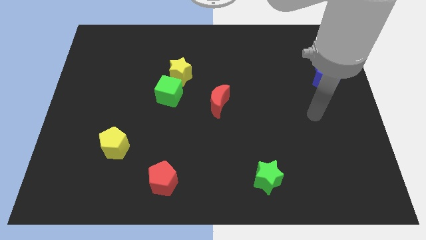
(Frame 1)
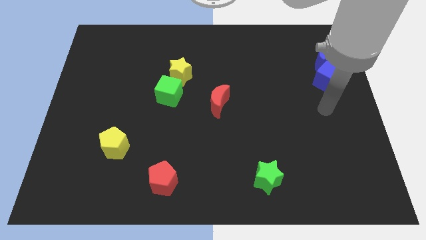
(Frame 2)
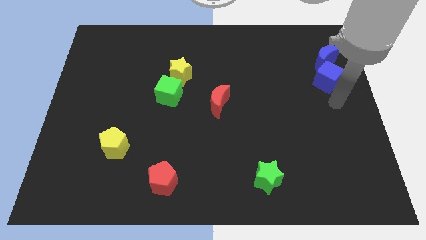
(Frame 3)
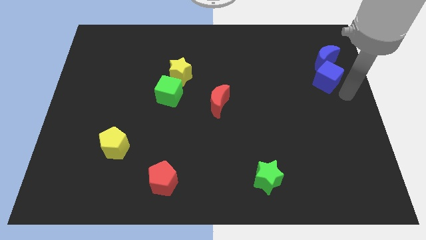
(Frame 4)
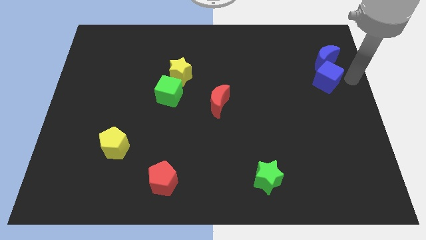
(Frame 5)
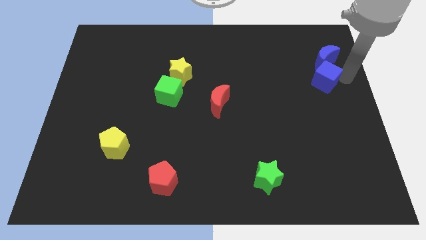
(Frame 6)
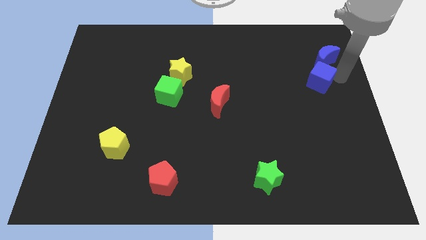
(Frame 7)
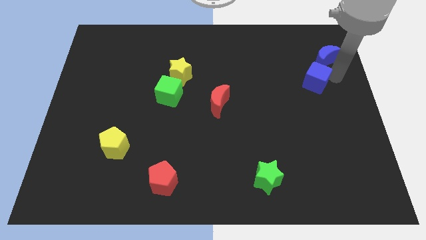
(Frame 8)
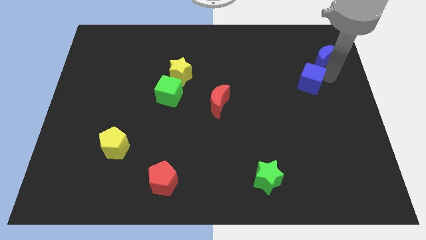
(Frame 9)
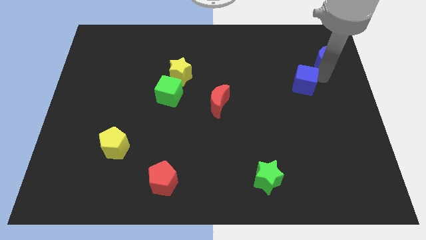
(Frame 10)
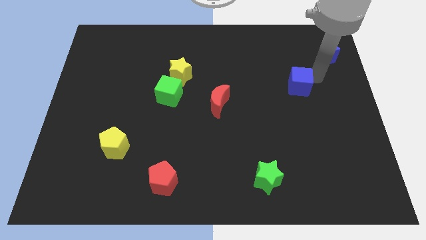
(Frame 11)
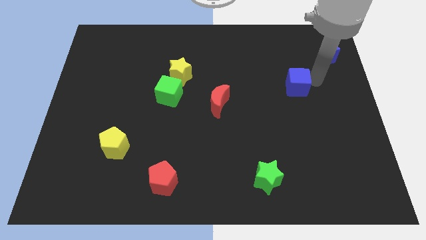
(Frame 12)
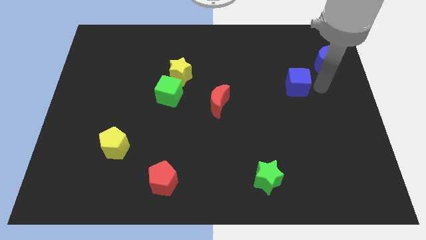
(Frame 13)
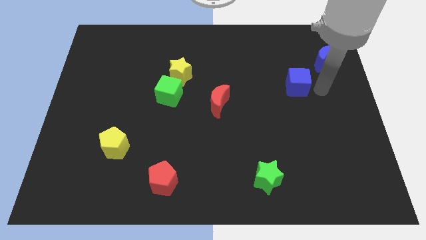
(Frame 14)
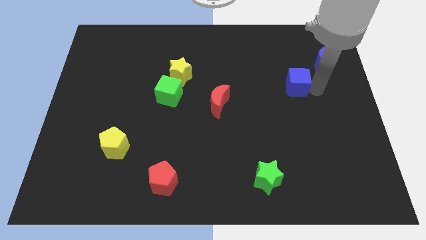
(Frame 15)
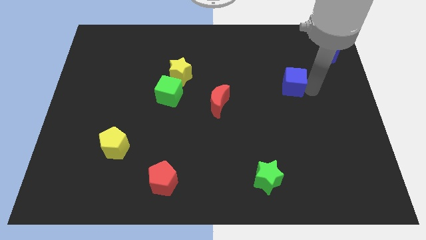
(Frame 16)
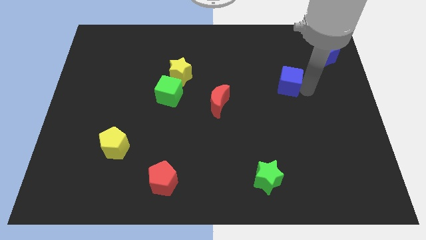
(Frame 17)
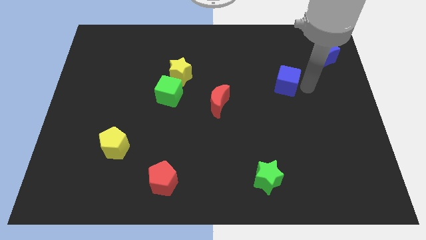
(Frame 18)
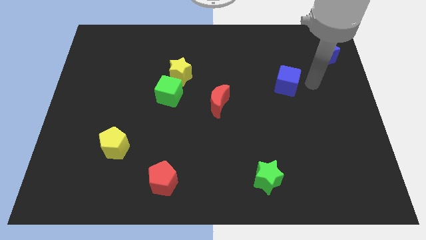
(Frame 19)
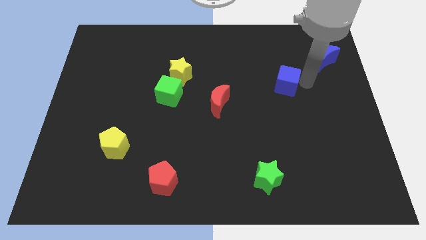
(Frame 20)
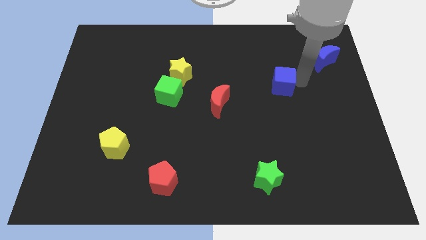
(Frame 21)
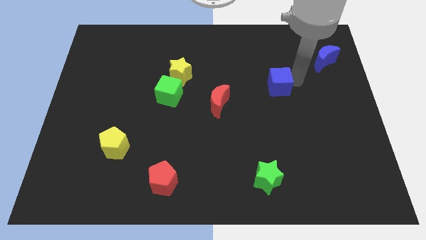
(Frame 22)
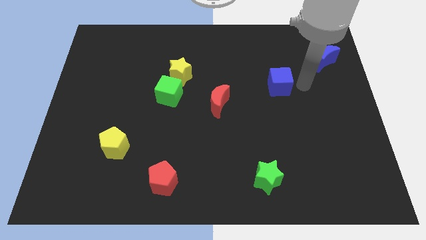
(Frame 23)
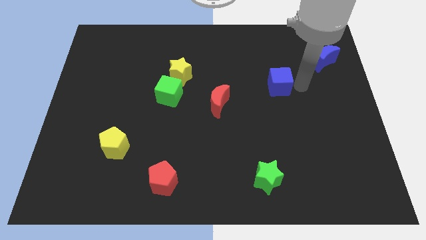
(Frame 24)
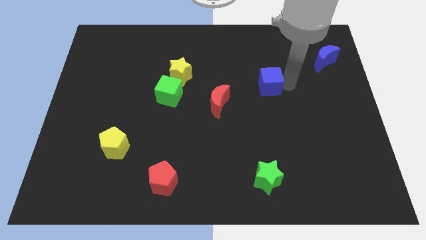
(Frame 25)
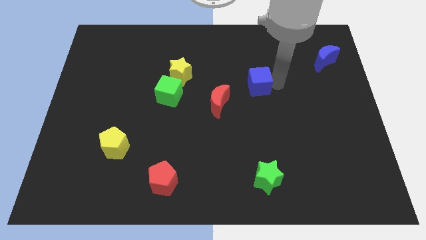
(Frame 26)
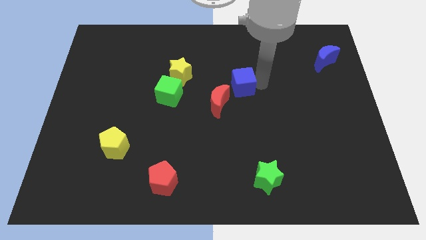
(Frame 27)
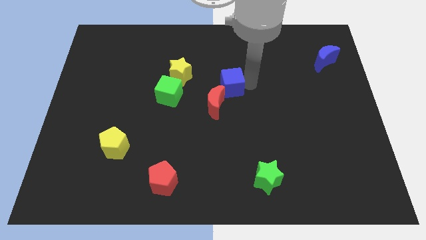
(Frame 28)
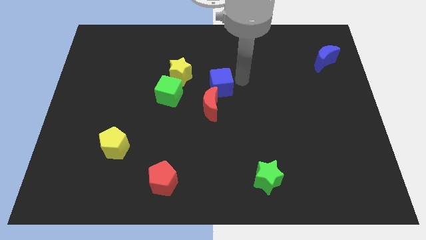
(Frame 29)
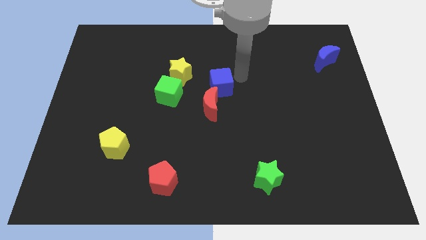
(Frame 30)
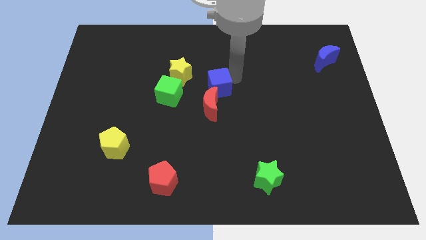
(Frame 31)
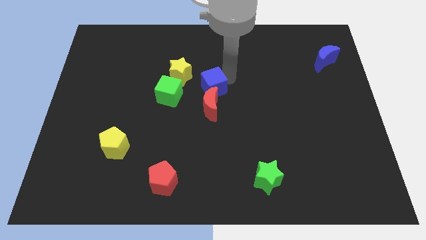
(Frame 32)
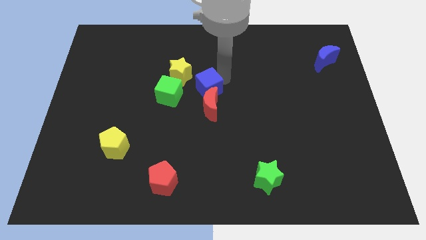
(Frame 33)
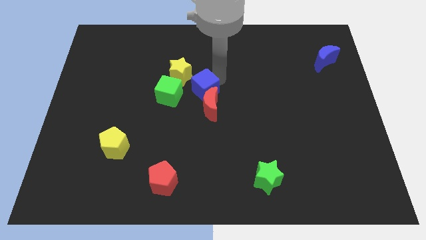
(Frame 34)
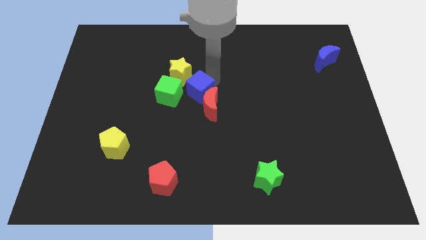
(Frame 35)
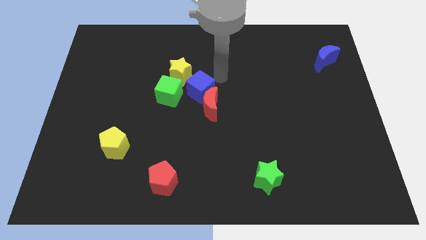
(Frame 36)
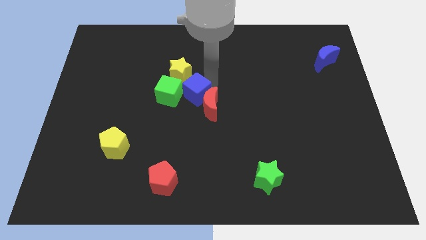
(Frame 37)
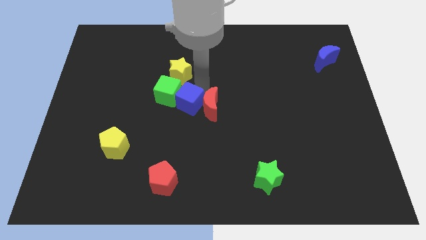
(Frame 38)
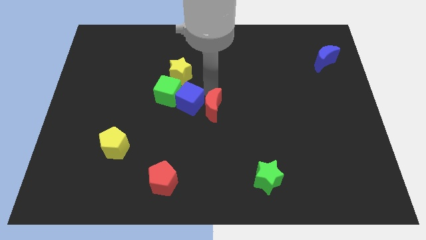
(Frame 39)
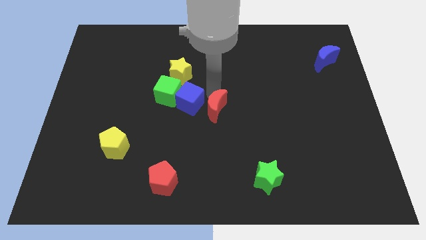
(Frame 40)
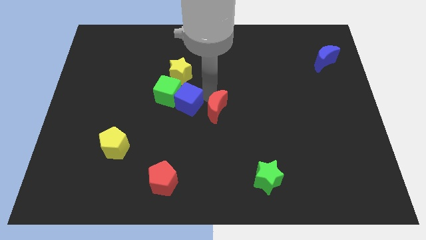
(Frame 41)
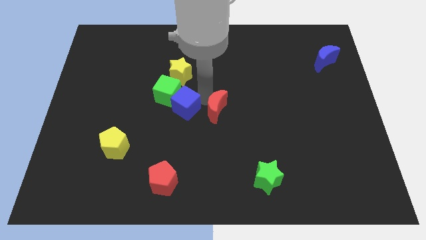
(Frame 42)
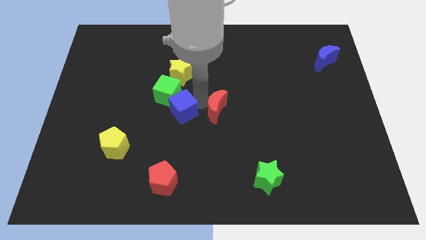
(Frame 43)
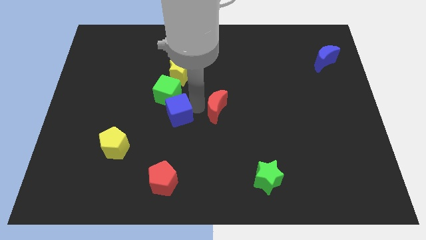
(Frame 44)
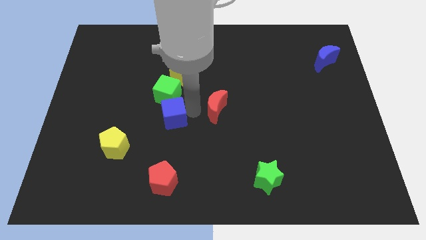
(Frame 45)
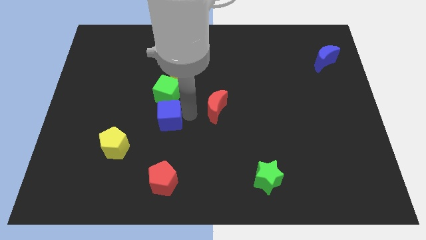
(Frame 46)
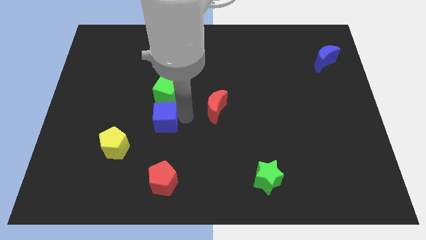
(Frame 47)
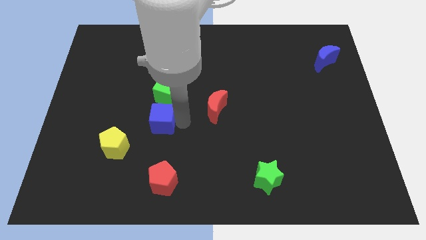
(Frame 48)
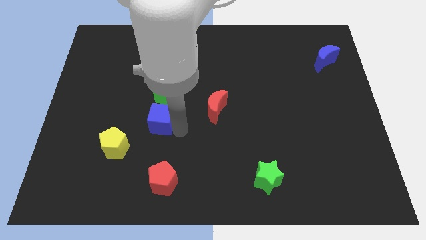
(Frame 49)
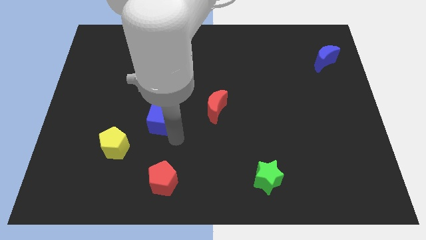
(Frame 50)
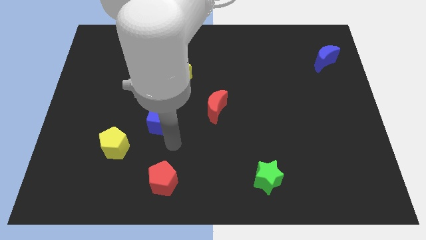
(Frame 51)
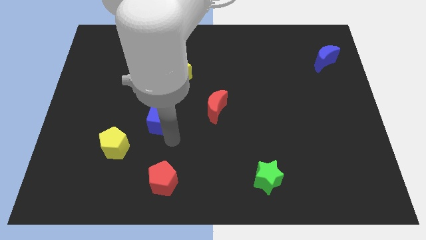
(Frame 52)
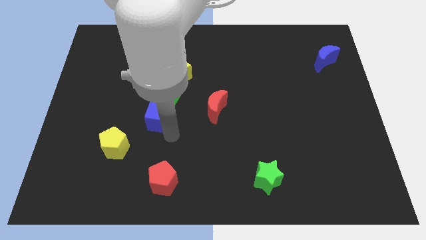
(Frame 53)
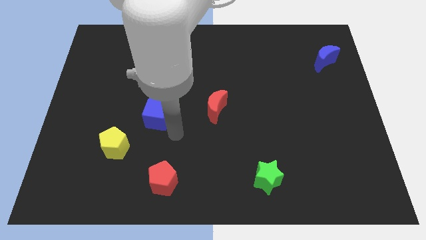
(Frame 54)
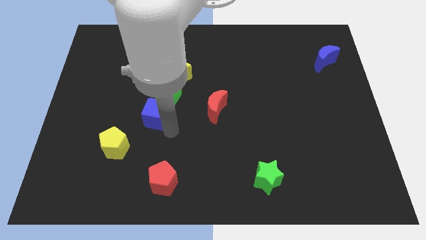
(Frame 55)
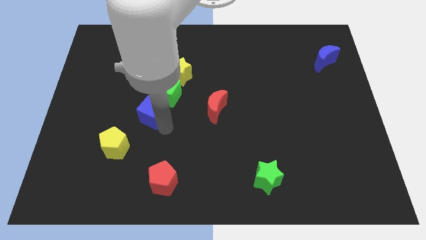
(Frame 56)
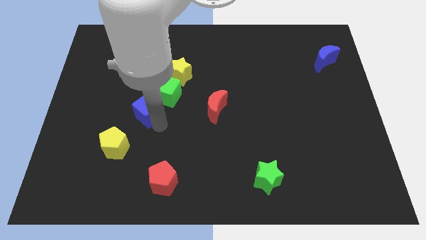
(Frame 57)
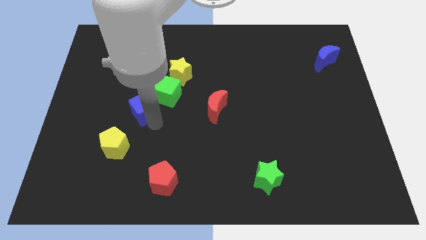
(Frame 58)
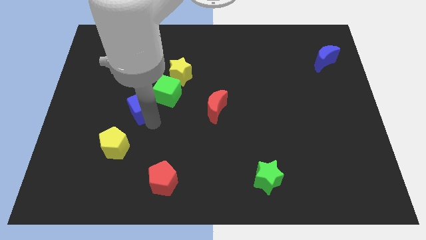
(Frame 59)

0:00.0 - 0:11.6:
put the blue cube just left of the green cube

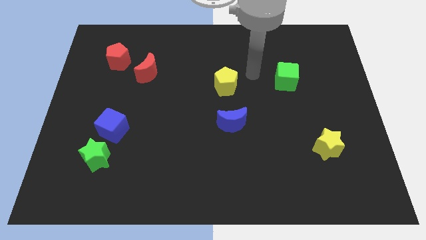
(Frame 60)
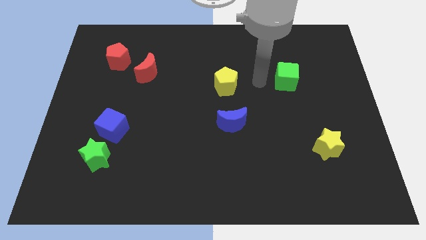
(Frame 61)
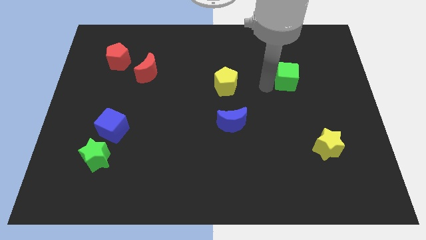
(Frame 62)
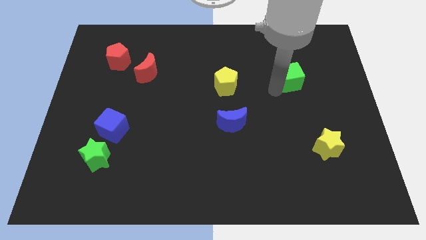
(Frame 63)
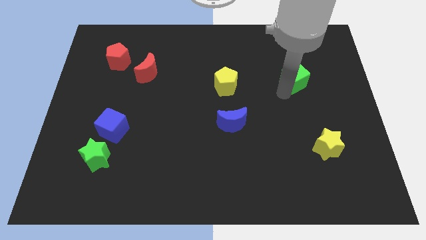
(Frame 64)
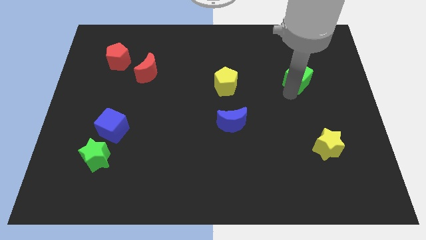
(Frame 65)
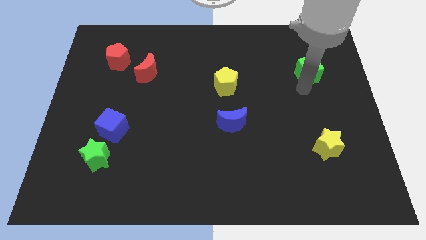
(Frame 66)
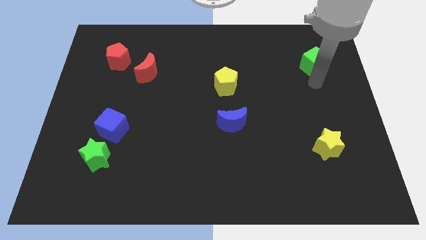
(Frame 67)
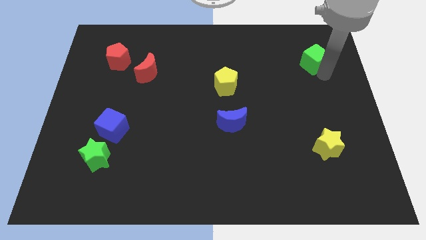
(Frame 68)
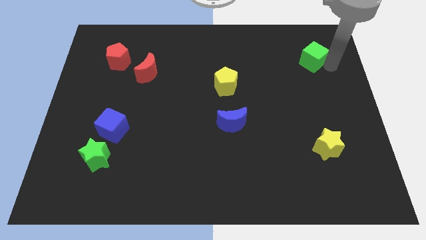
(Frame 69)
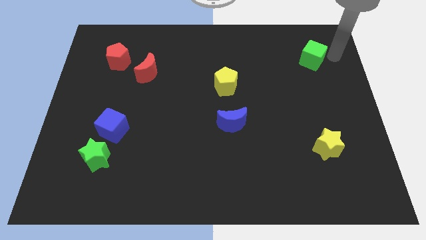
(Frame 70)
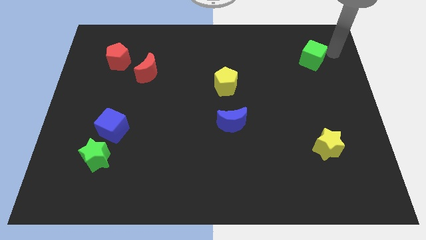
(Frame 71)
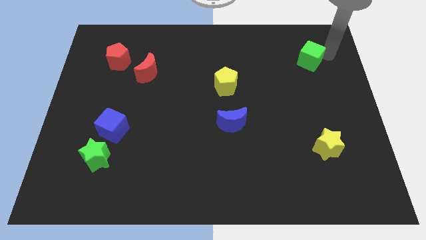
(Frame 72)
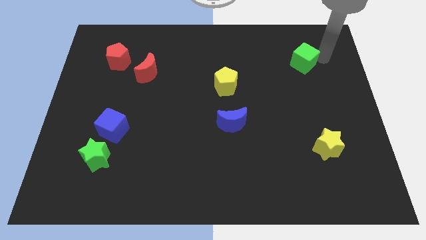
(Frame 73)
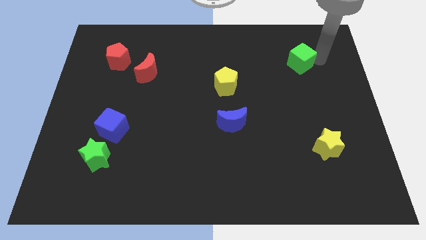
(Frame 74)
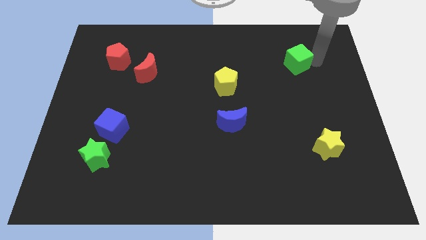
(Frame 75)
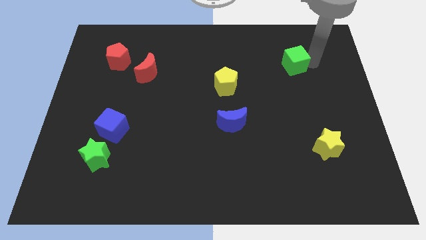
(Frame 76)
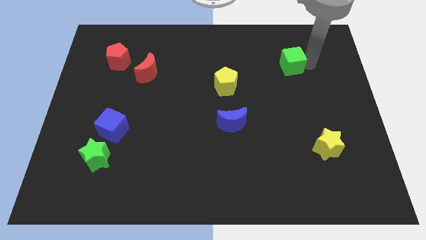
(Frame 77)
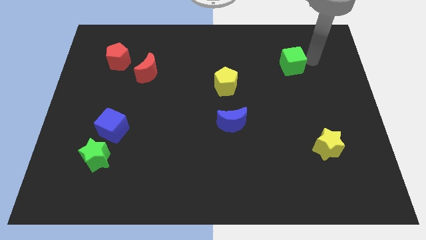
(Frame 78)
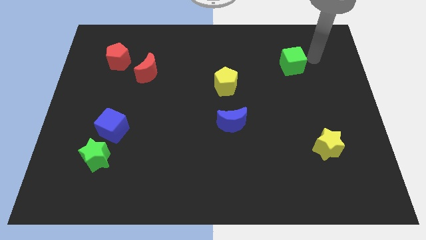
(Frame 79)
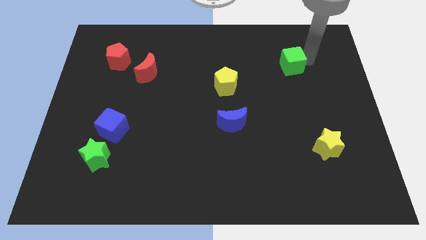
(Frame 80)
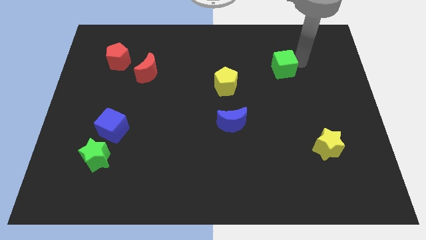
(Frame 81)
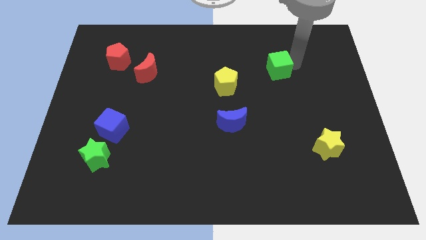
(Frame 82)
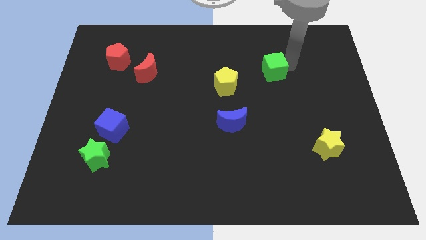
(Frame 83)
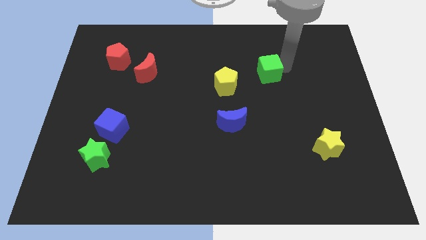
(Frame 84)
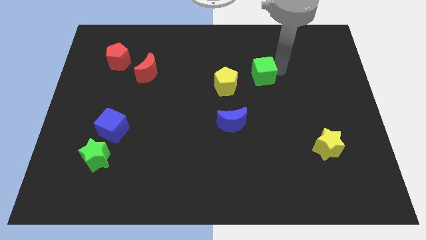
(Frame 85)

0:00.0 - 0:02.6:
push the green cube to the top right side of the yellow pentagon
